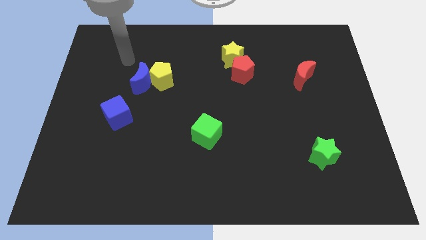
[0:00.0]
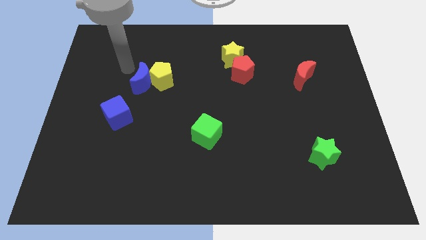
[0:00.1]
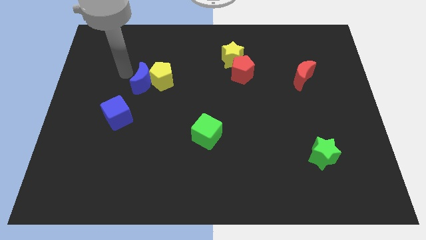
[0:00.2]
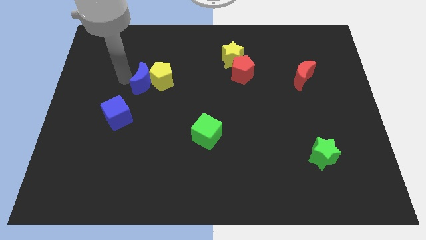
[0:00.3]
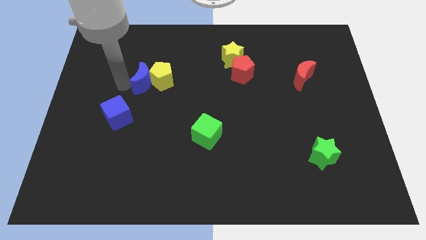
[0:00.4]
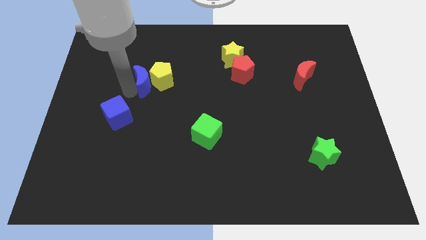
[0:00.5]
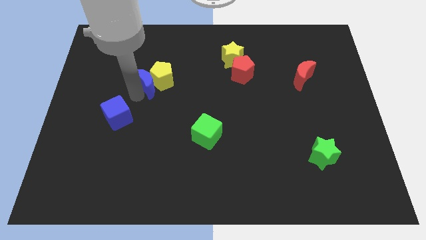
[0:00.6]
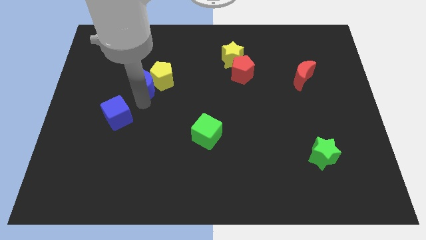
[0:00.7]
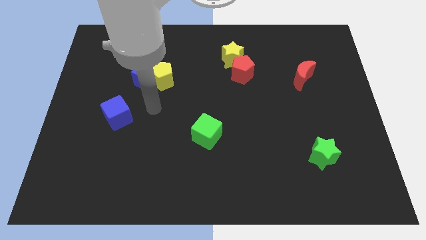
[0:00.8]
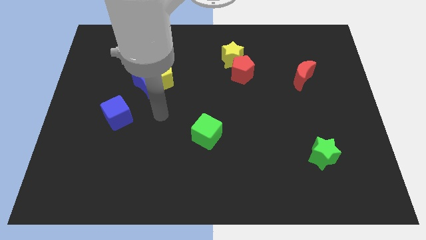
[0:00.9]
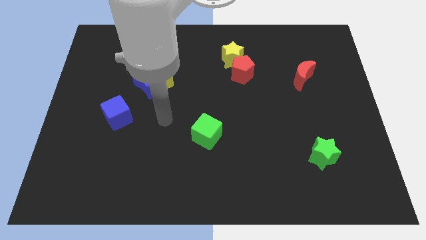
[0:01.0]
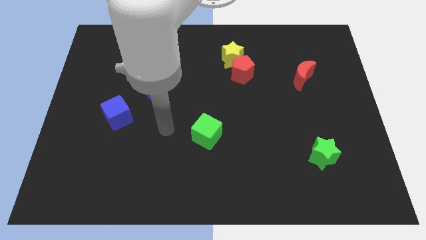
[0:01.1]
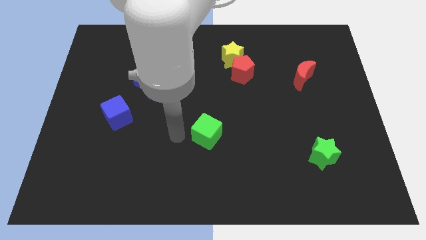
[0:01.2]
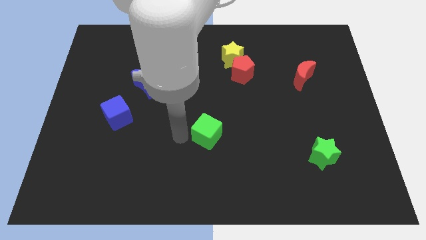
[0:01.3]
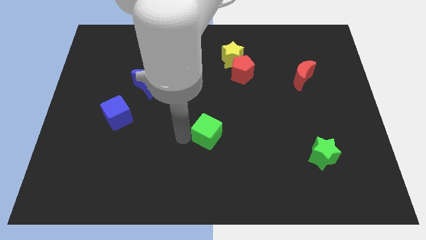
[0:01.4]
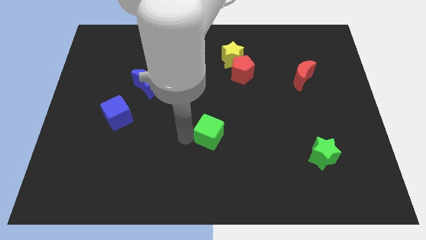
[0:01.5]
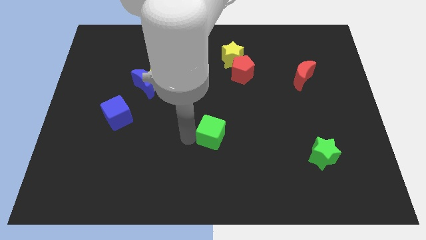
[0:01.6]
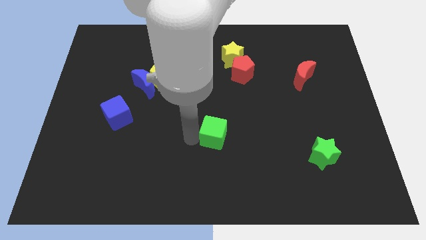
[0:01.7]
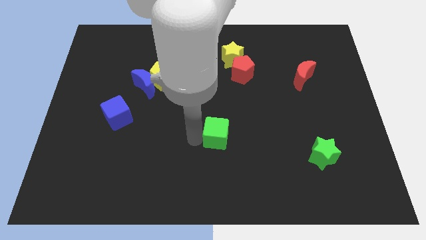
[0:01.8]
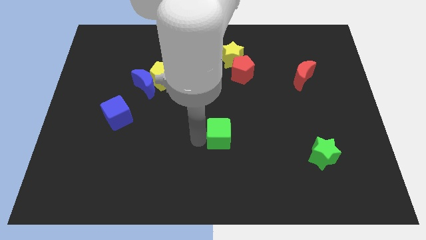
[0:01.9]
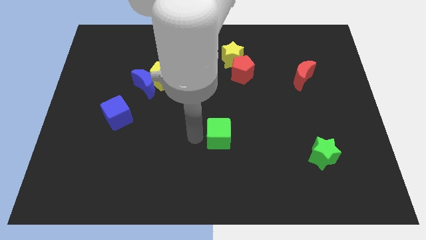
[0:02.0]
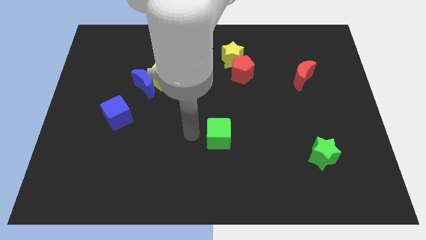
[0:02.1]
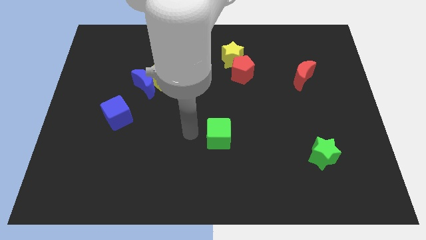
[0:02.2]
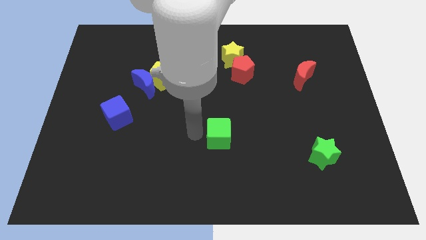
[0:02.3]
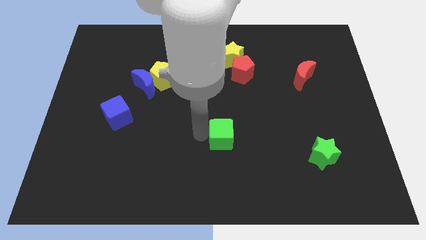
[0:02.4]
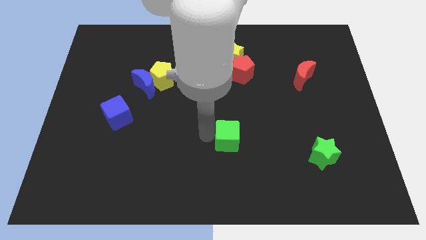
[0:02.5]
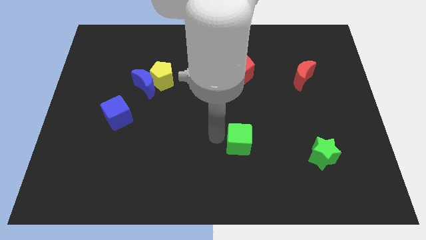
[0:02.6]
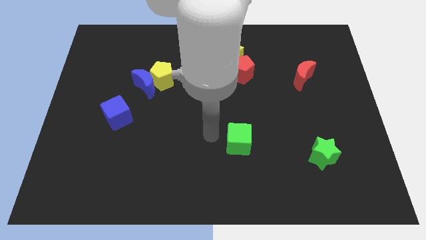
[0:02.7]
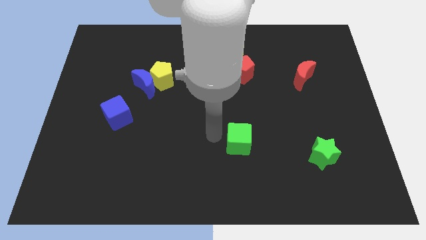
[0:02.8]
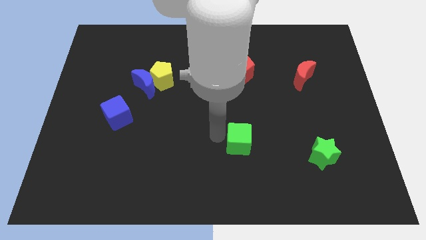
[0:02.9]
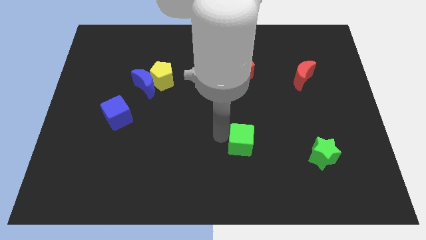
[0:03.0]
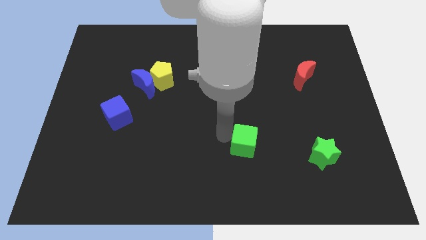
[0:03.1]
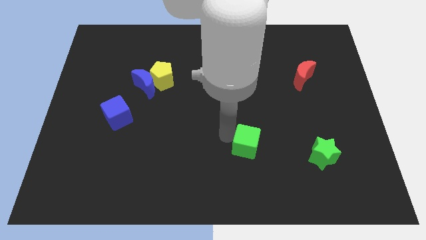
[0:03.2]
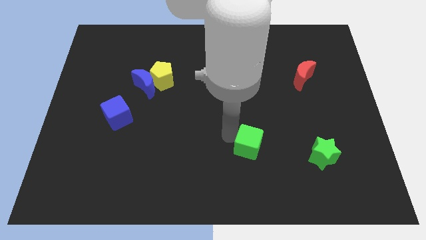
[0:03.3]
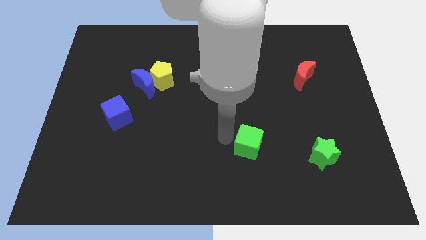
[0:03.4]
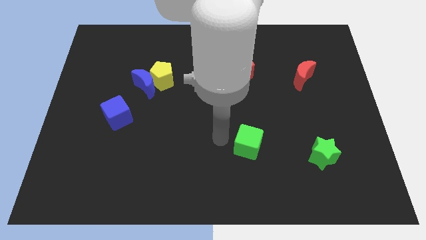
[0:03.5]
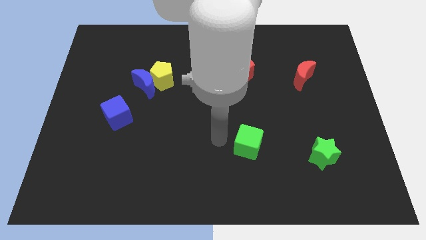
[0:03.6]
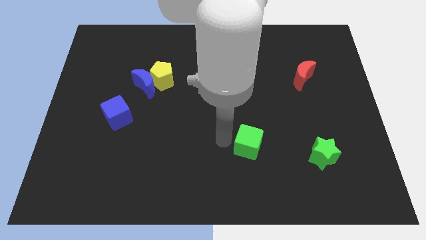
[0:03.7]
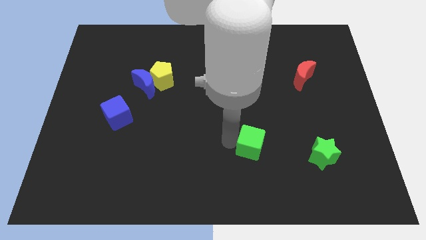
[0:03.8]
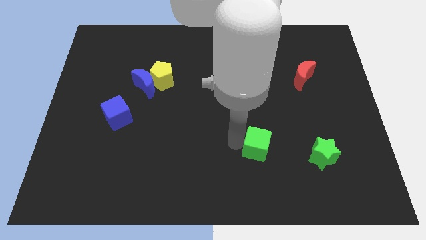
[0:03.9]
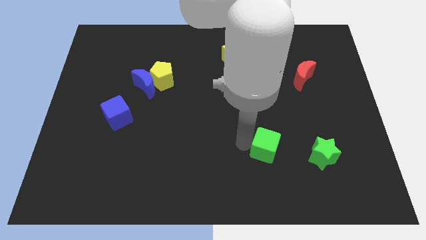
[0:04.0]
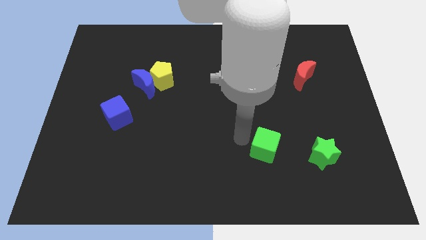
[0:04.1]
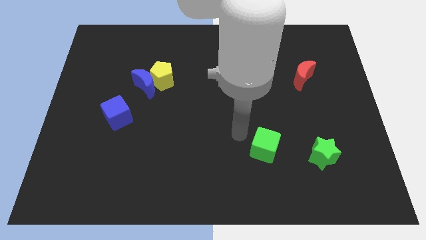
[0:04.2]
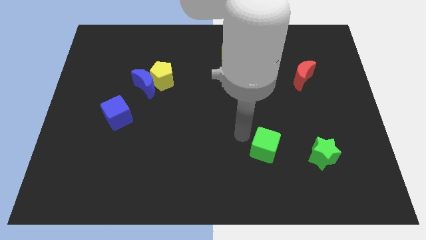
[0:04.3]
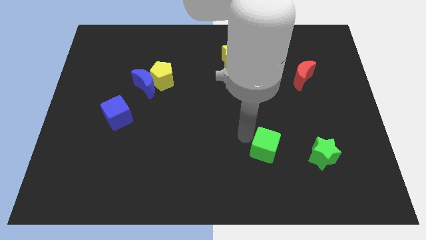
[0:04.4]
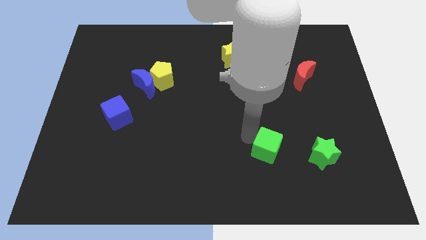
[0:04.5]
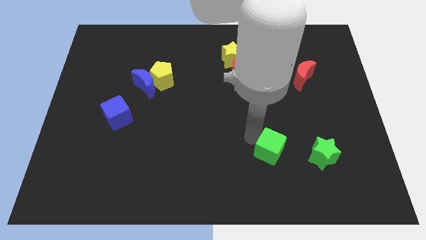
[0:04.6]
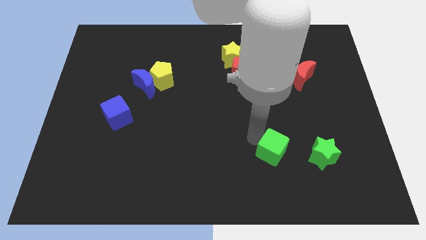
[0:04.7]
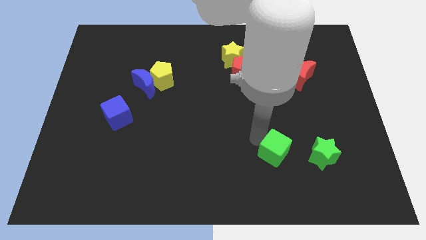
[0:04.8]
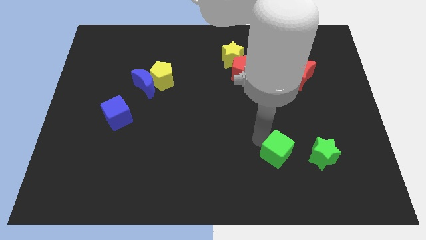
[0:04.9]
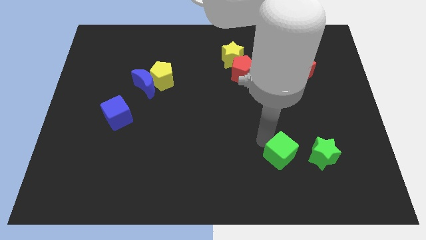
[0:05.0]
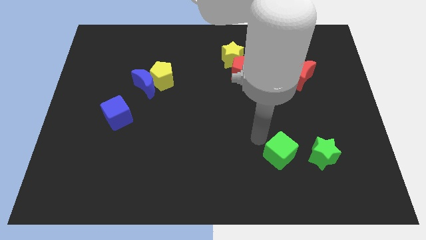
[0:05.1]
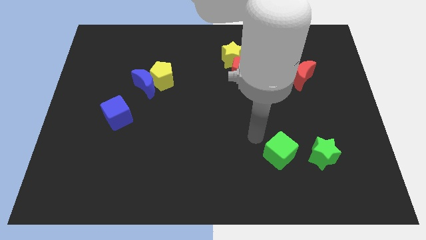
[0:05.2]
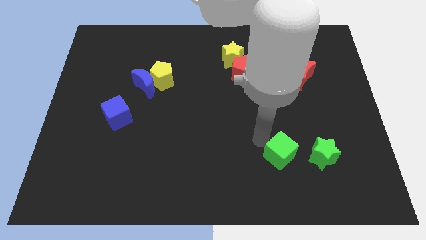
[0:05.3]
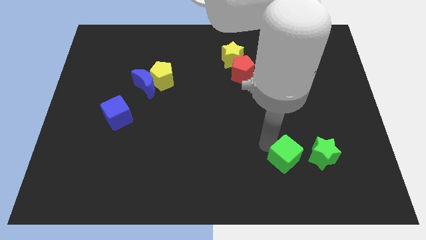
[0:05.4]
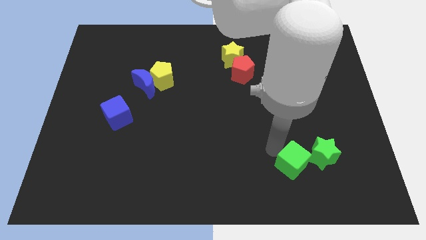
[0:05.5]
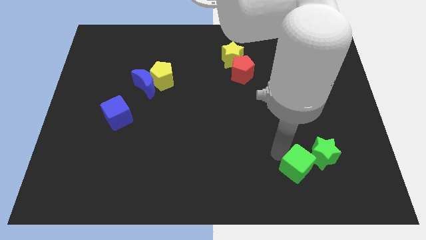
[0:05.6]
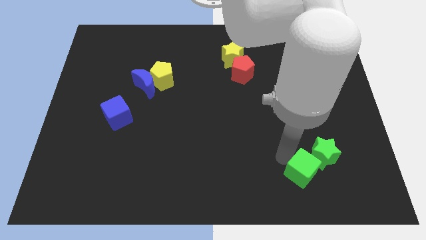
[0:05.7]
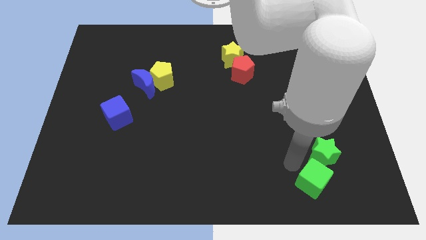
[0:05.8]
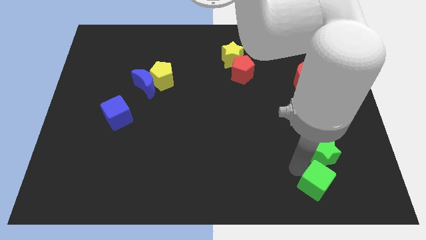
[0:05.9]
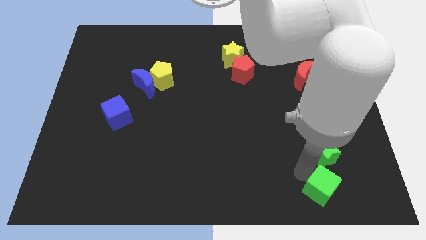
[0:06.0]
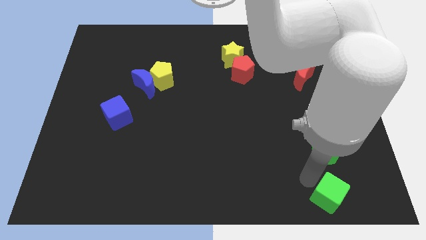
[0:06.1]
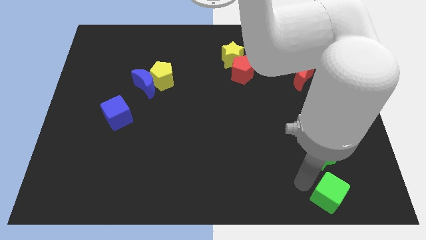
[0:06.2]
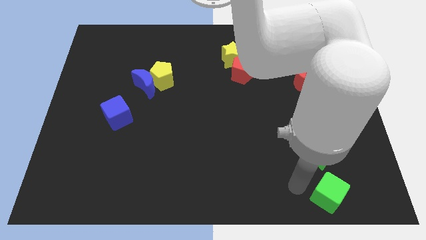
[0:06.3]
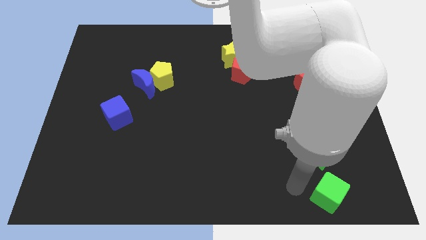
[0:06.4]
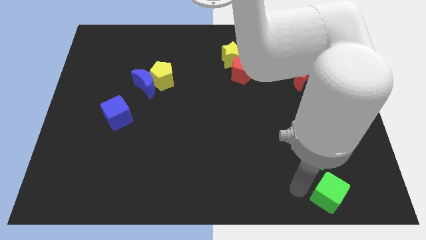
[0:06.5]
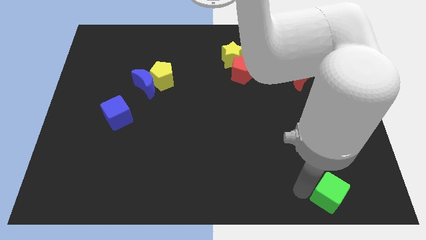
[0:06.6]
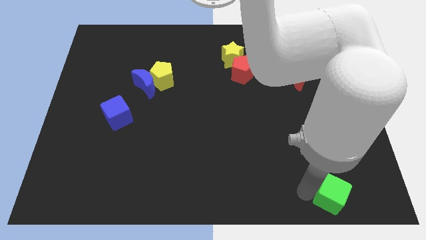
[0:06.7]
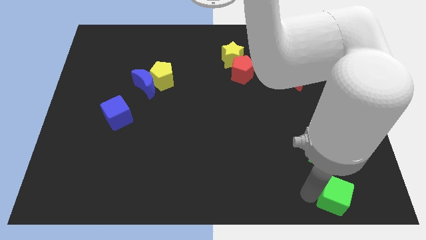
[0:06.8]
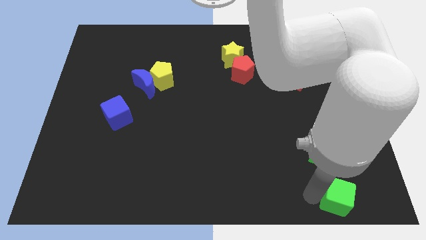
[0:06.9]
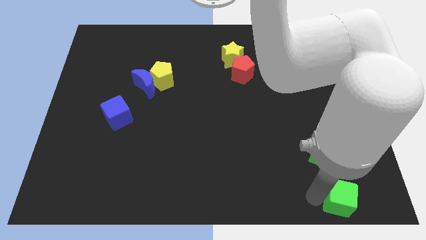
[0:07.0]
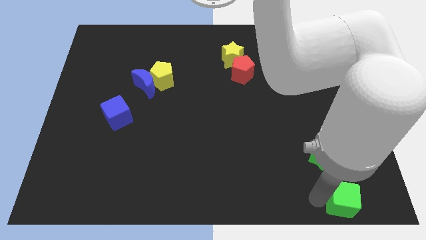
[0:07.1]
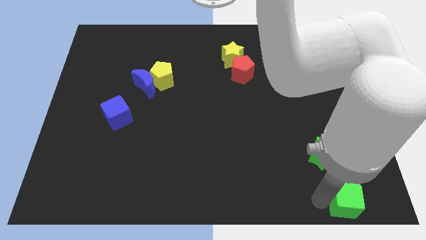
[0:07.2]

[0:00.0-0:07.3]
put the green cube to the bottom right of the board
